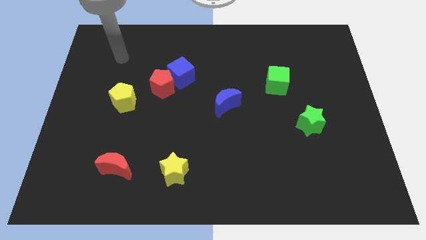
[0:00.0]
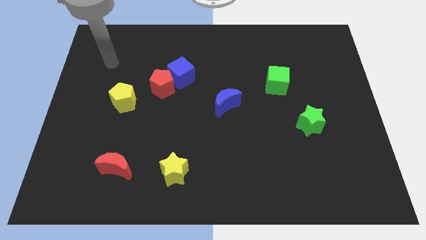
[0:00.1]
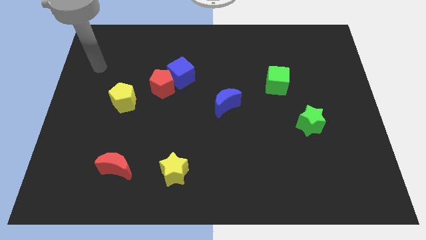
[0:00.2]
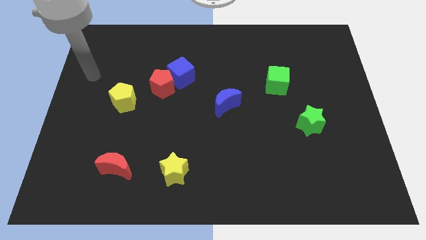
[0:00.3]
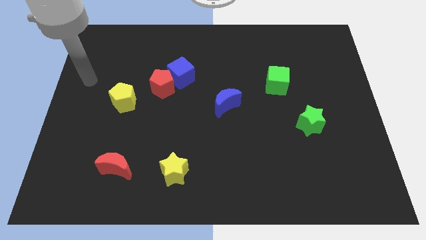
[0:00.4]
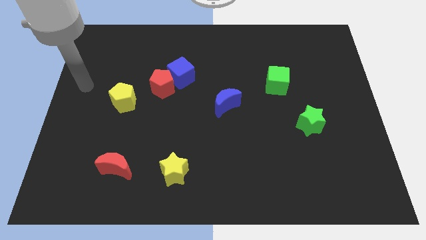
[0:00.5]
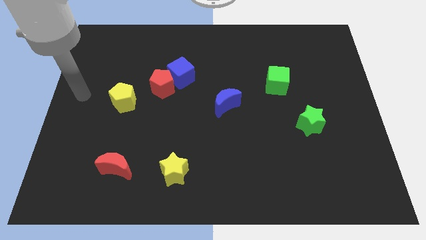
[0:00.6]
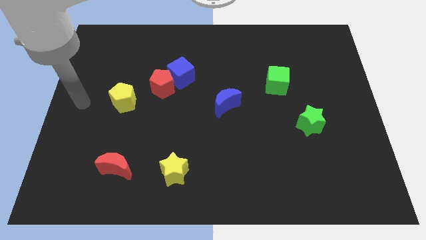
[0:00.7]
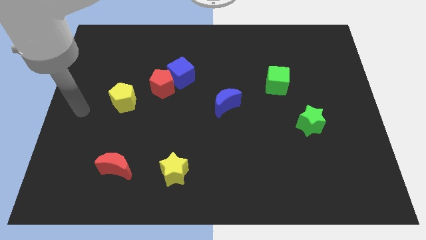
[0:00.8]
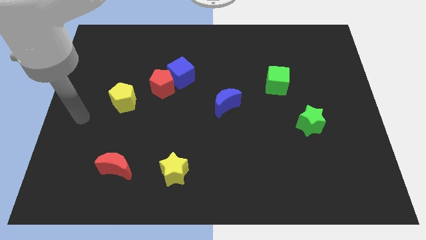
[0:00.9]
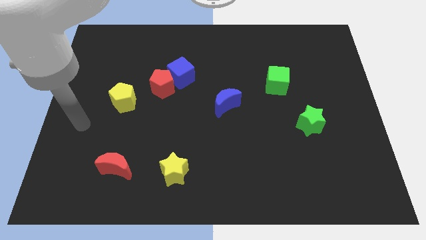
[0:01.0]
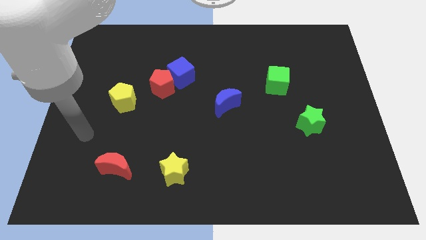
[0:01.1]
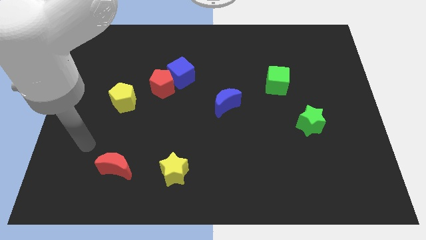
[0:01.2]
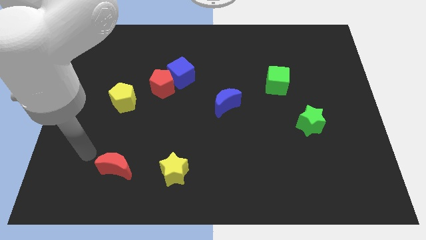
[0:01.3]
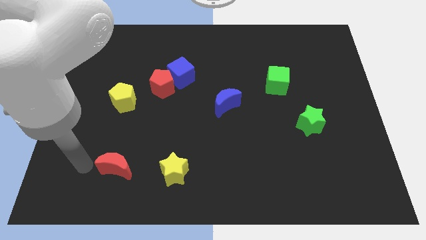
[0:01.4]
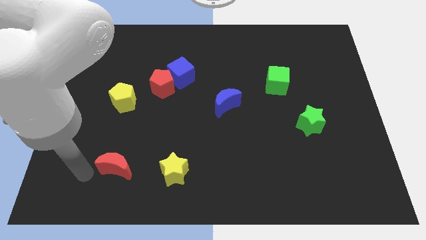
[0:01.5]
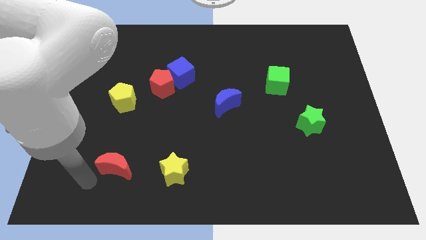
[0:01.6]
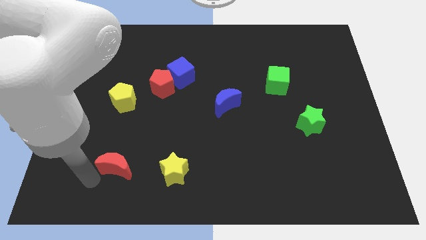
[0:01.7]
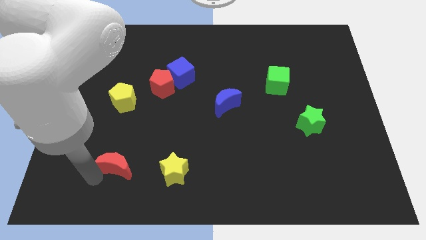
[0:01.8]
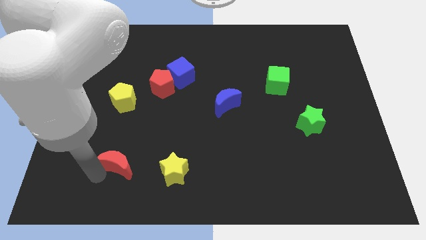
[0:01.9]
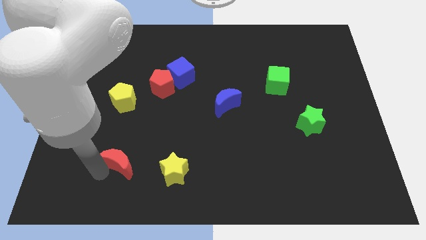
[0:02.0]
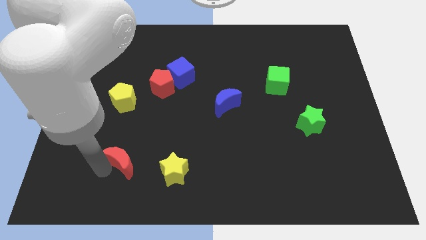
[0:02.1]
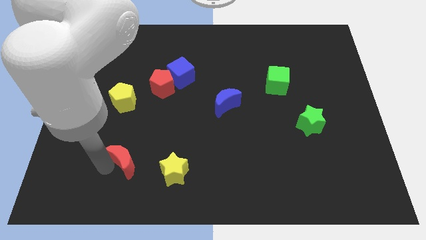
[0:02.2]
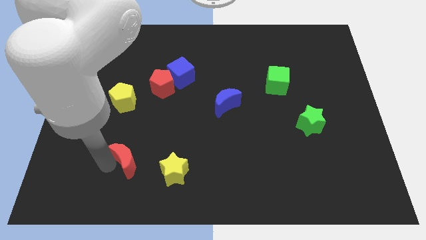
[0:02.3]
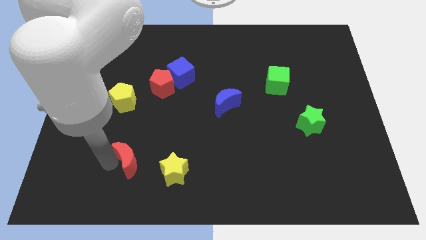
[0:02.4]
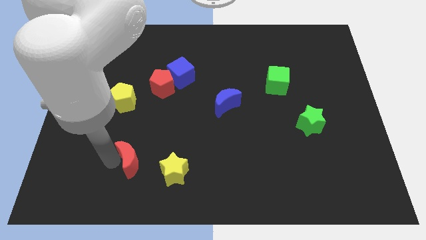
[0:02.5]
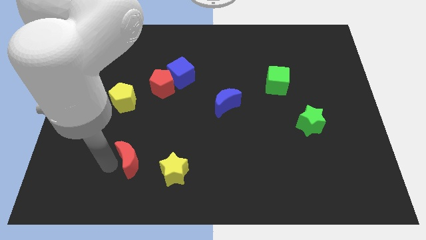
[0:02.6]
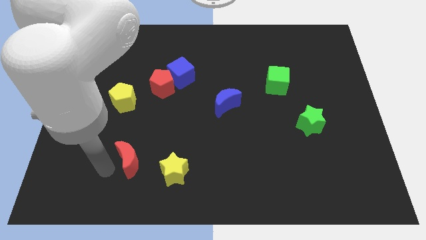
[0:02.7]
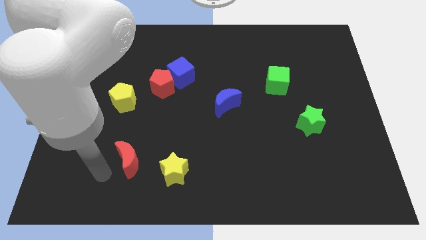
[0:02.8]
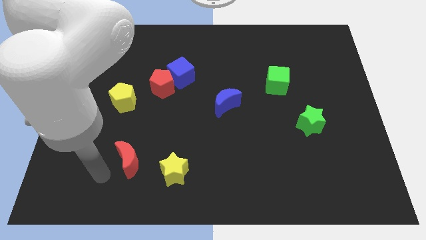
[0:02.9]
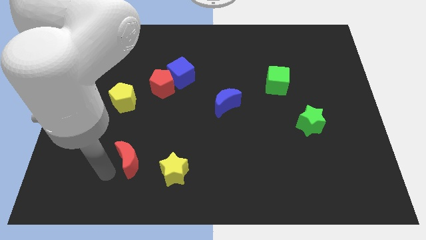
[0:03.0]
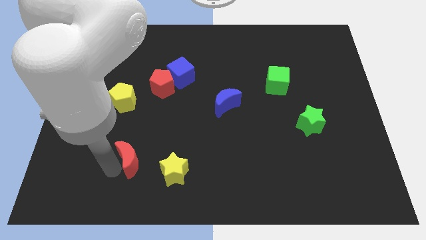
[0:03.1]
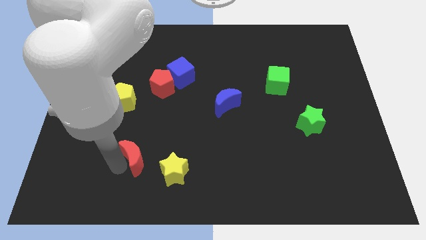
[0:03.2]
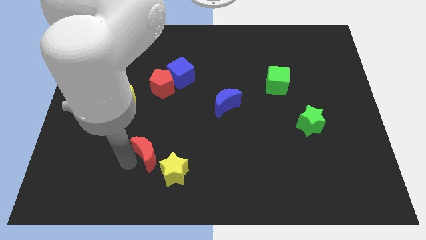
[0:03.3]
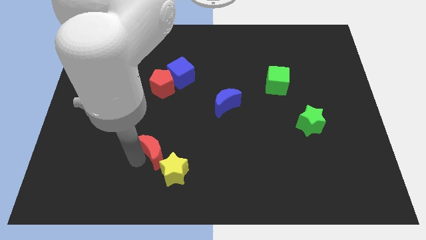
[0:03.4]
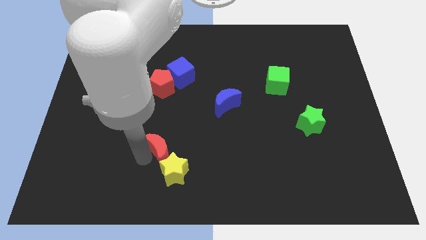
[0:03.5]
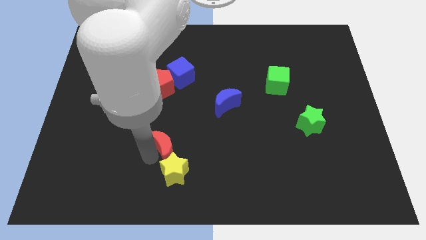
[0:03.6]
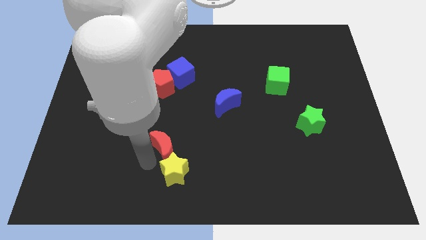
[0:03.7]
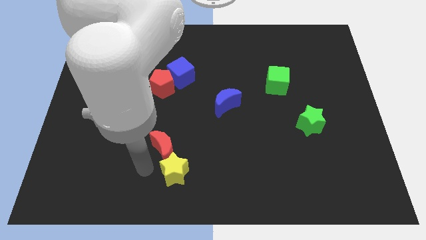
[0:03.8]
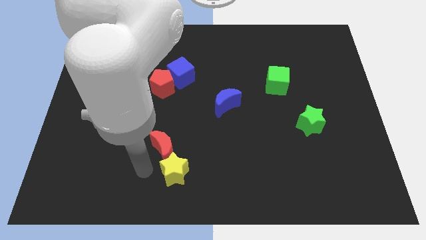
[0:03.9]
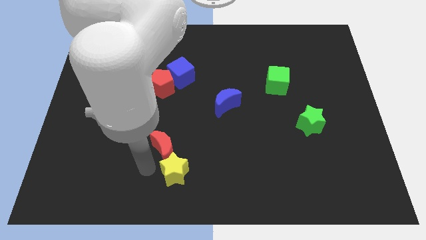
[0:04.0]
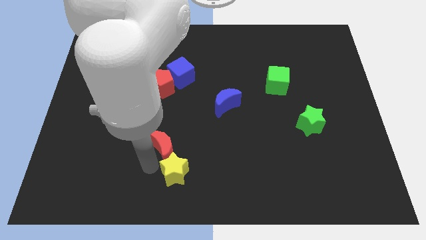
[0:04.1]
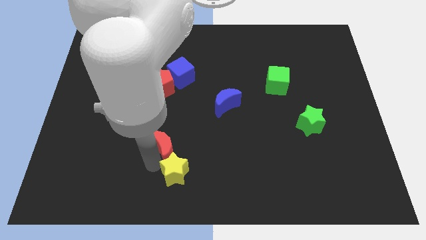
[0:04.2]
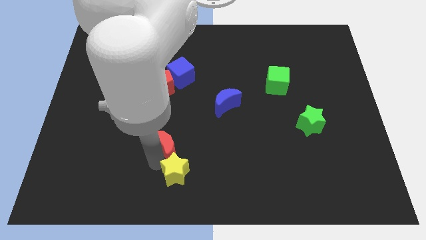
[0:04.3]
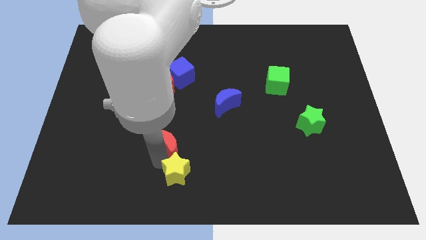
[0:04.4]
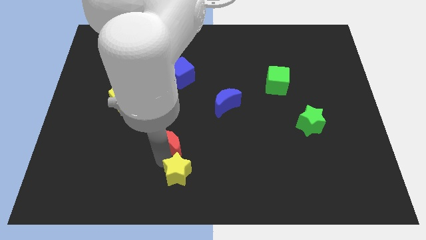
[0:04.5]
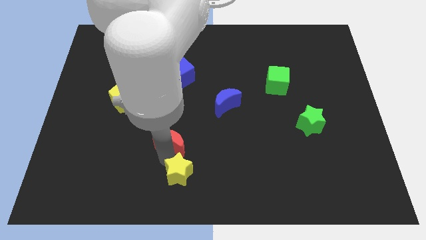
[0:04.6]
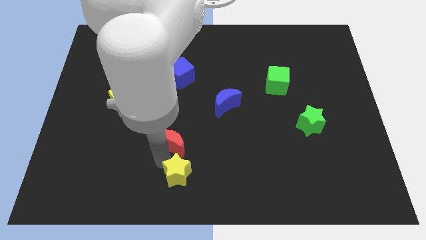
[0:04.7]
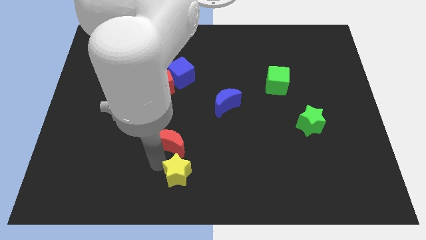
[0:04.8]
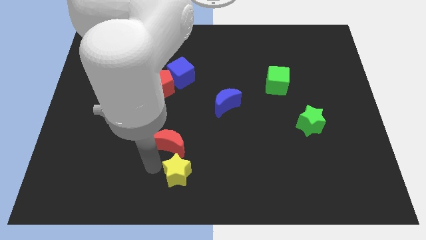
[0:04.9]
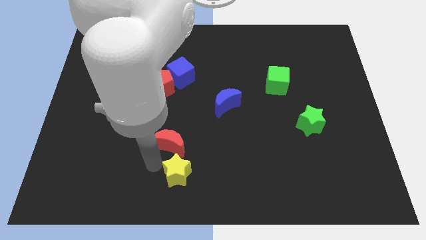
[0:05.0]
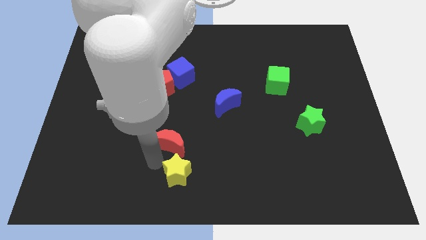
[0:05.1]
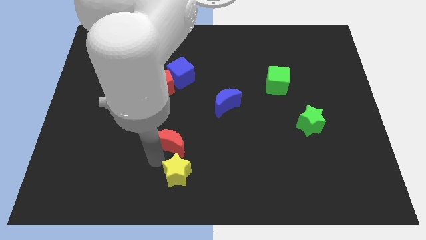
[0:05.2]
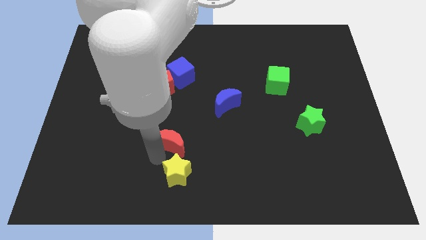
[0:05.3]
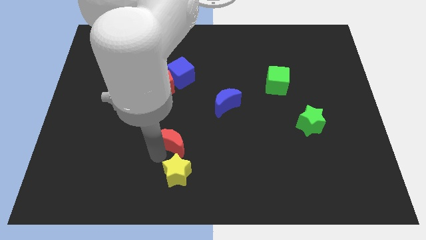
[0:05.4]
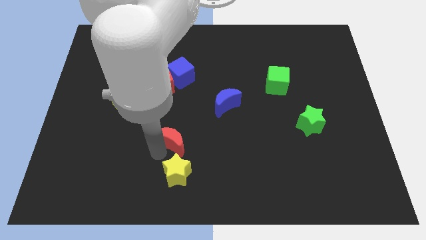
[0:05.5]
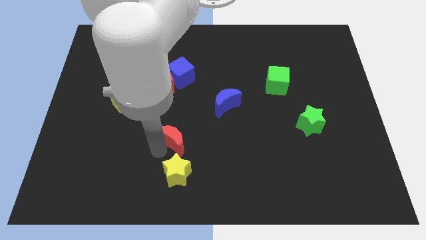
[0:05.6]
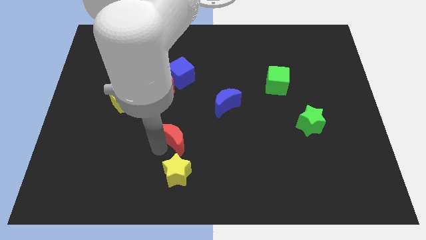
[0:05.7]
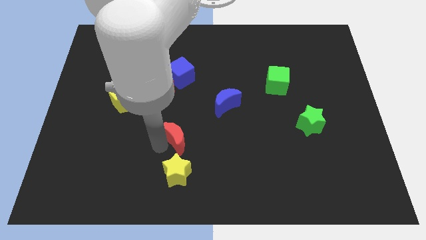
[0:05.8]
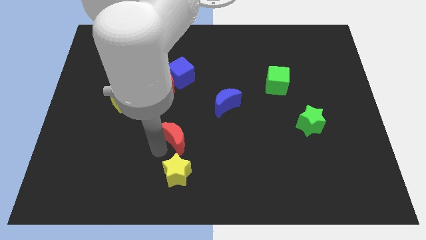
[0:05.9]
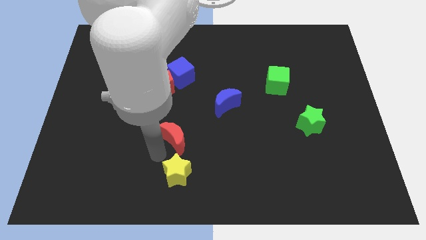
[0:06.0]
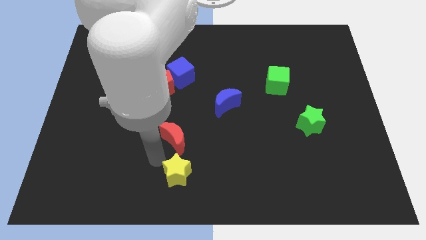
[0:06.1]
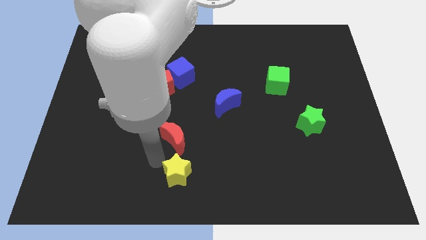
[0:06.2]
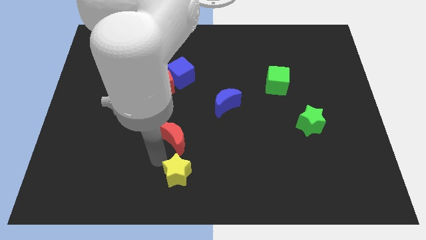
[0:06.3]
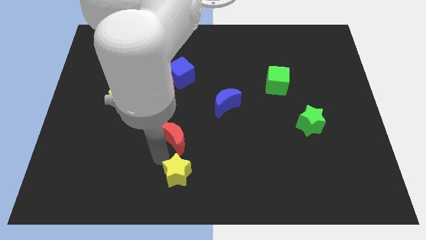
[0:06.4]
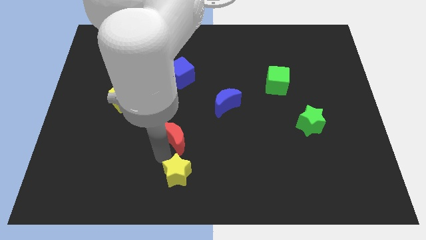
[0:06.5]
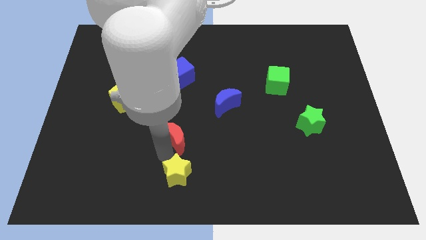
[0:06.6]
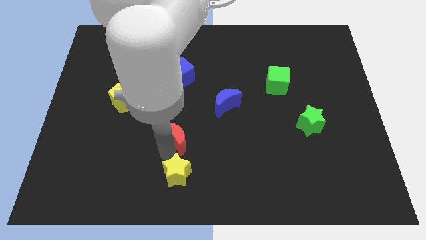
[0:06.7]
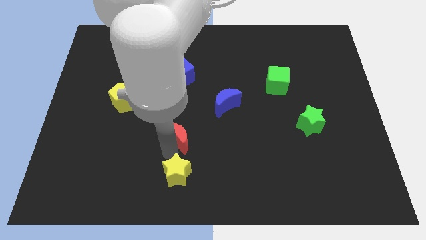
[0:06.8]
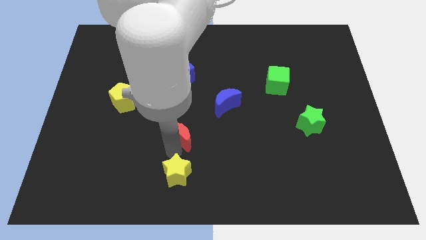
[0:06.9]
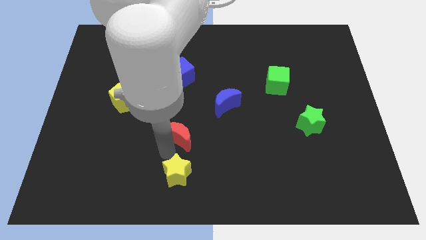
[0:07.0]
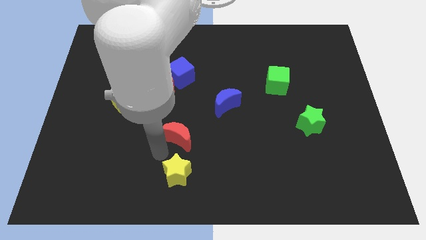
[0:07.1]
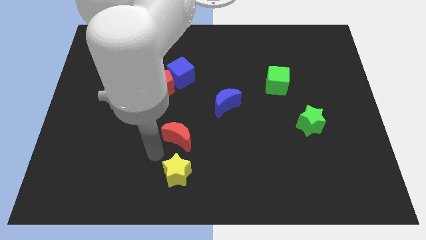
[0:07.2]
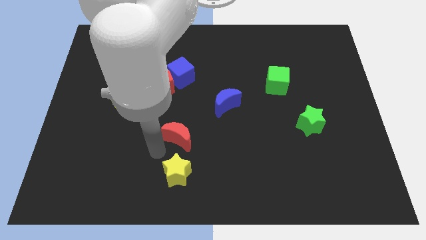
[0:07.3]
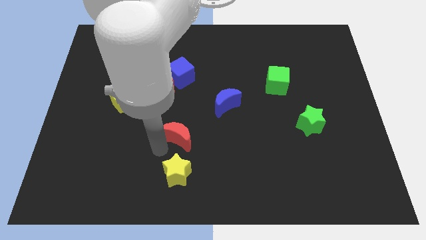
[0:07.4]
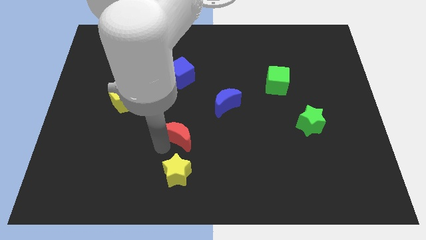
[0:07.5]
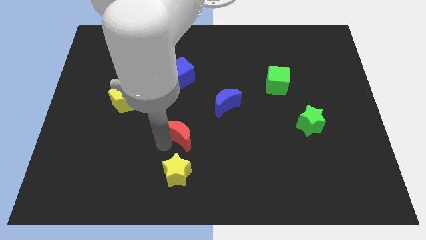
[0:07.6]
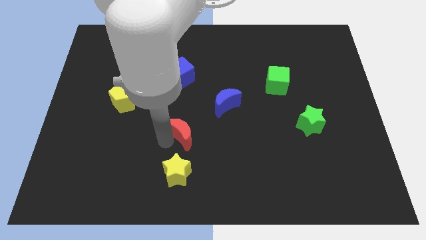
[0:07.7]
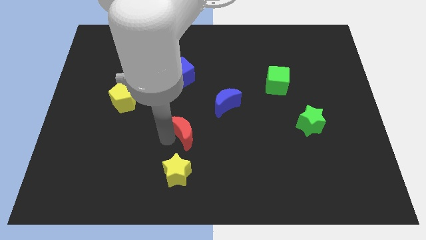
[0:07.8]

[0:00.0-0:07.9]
push the red moon to the bottom left of the blue moon
